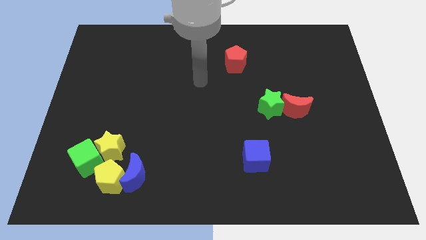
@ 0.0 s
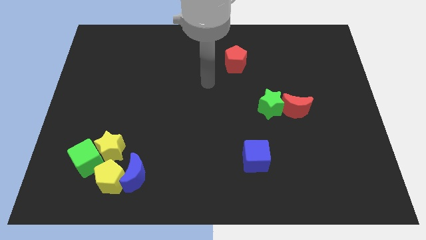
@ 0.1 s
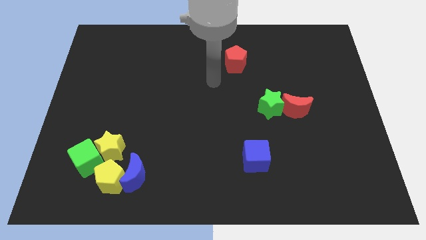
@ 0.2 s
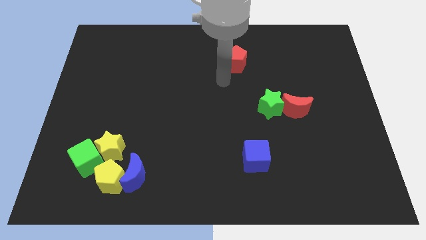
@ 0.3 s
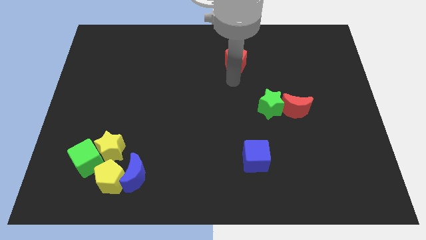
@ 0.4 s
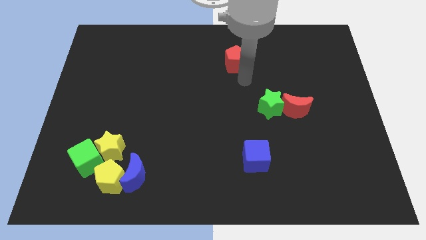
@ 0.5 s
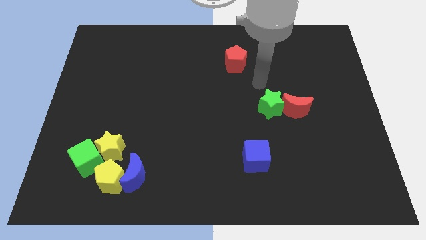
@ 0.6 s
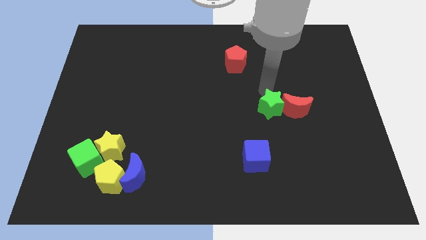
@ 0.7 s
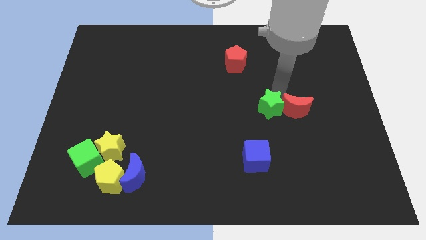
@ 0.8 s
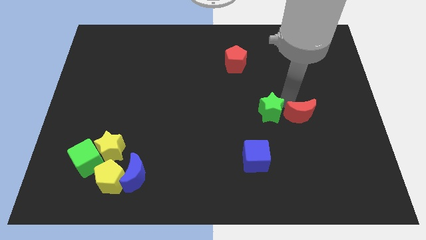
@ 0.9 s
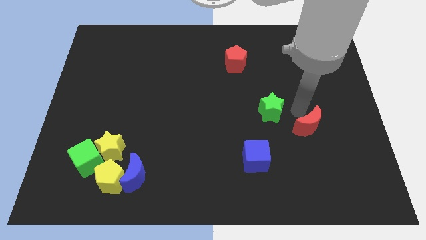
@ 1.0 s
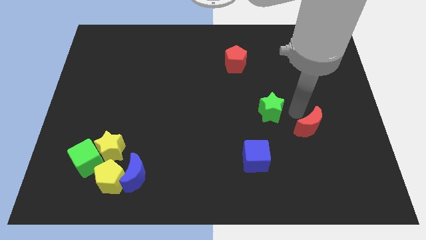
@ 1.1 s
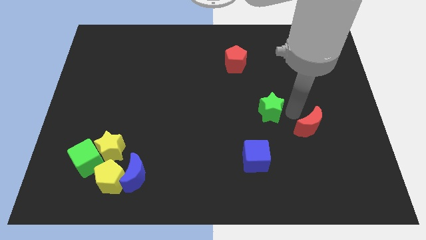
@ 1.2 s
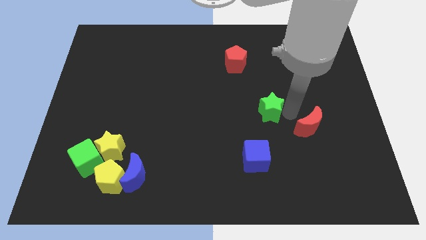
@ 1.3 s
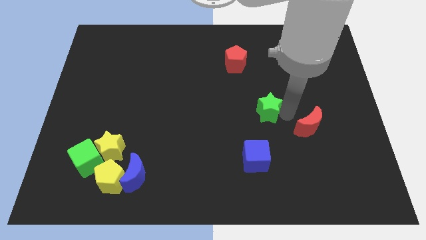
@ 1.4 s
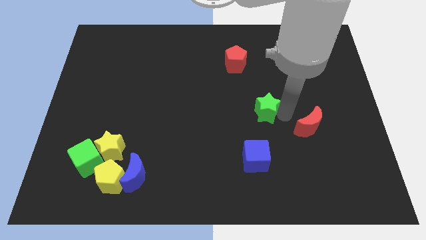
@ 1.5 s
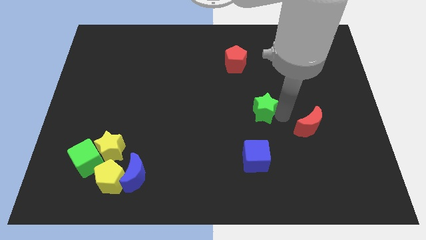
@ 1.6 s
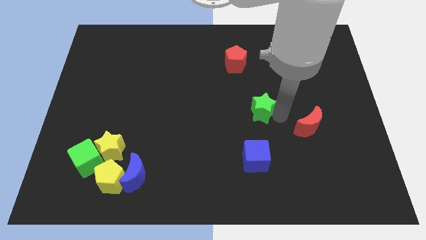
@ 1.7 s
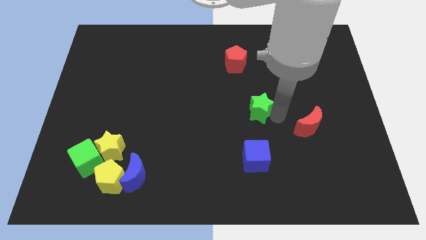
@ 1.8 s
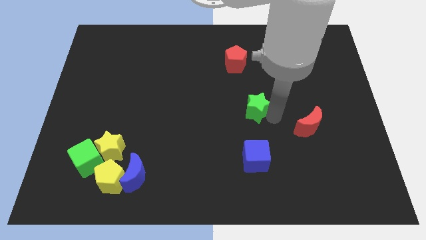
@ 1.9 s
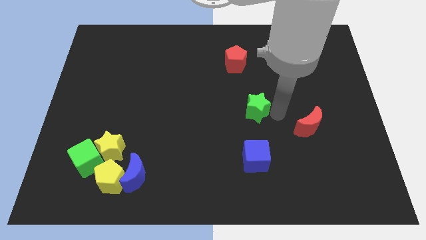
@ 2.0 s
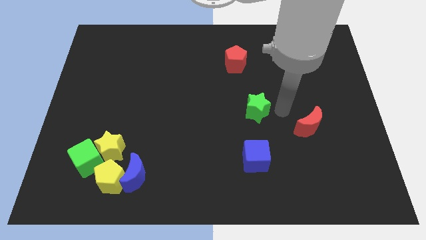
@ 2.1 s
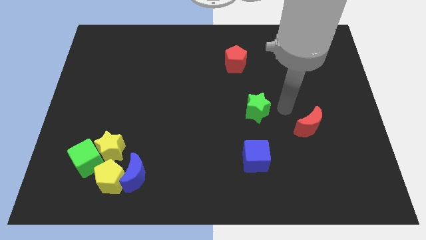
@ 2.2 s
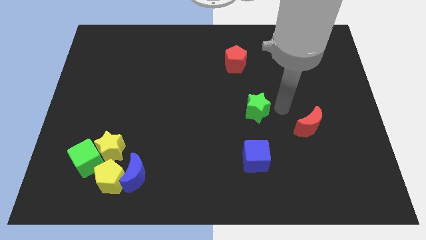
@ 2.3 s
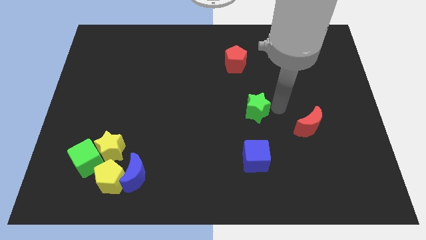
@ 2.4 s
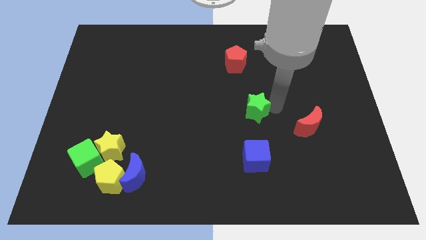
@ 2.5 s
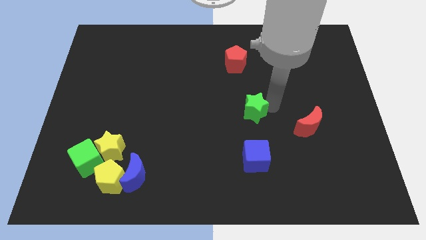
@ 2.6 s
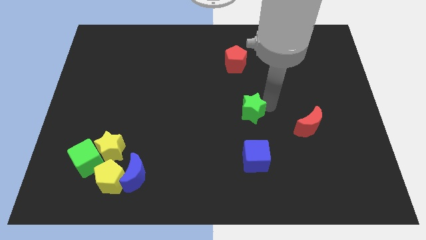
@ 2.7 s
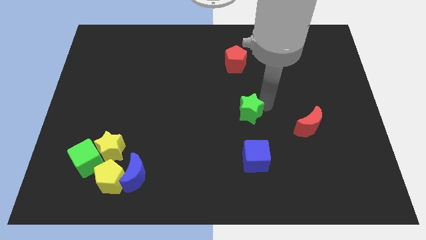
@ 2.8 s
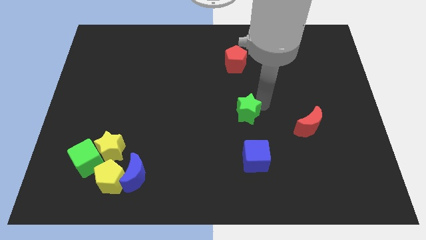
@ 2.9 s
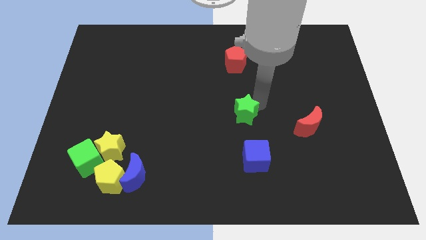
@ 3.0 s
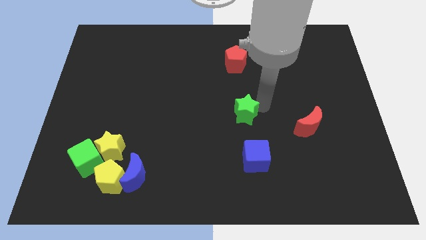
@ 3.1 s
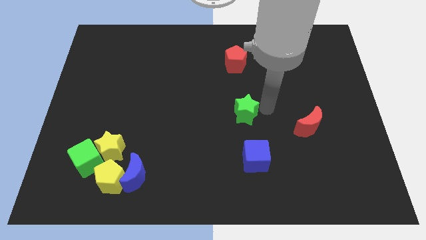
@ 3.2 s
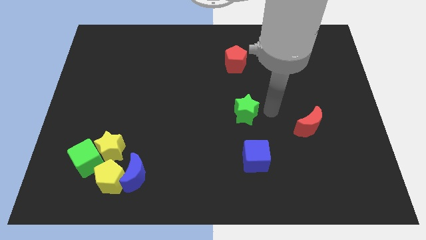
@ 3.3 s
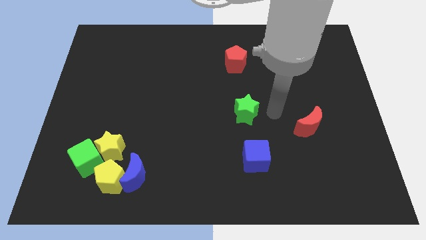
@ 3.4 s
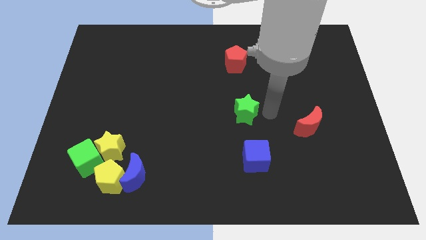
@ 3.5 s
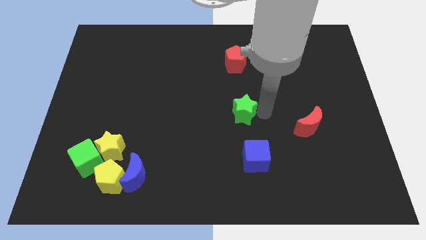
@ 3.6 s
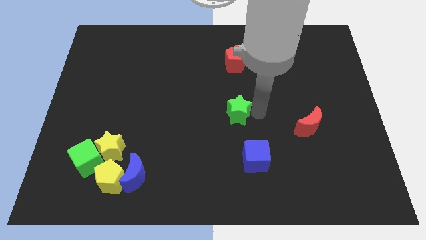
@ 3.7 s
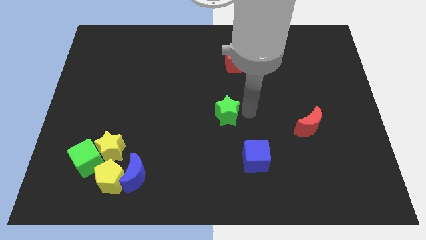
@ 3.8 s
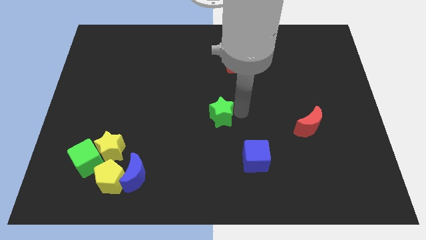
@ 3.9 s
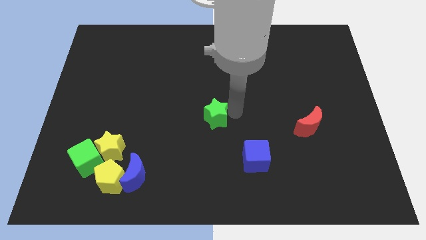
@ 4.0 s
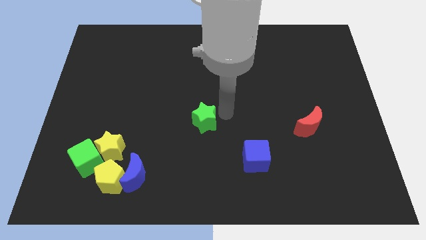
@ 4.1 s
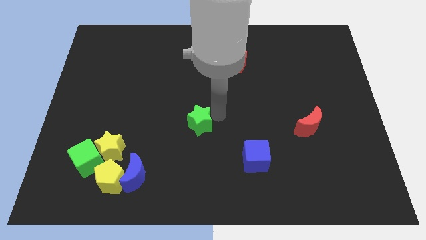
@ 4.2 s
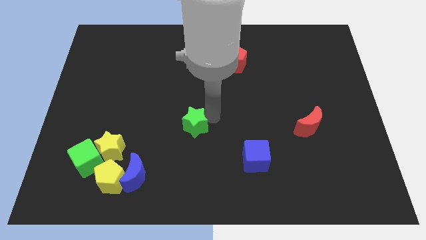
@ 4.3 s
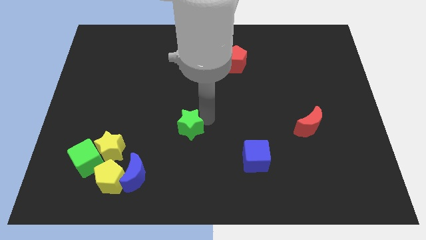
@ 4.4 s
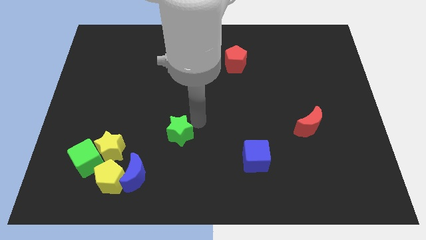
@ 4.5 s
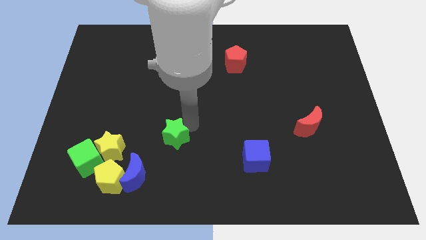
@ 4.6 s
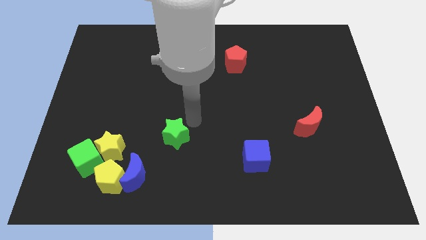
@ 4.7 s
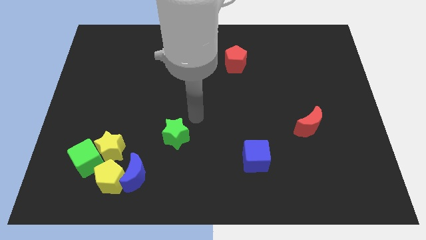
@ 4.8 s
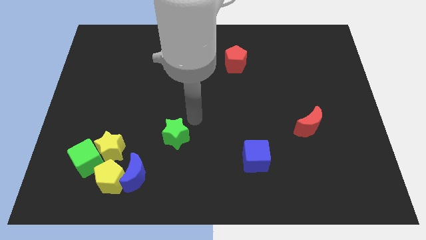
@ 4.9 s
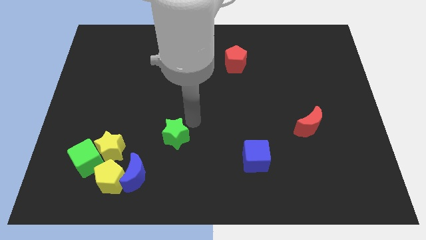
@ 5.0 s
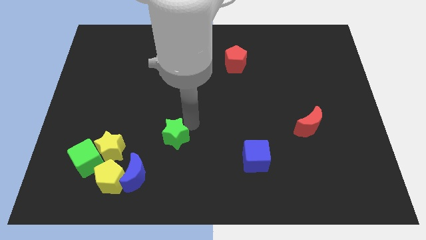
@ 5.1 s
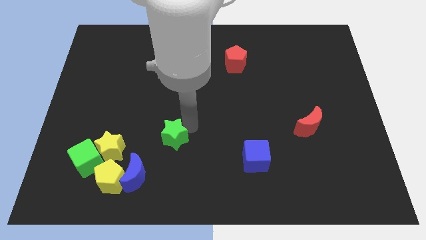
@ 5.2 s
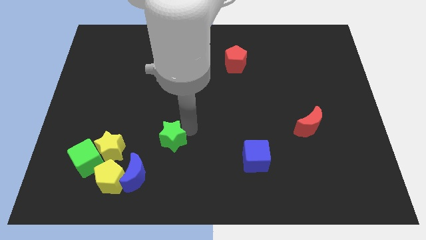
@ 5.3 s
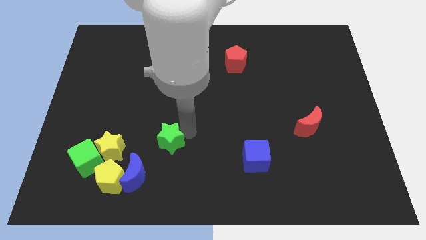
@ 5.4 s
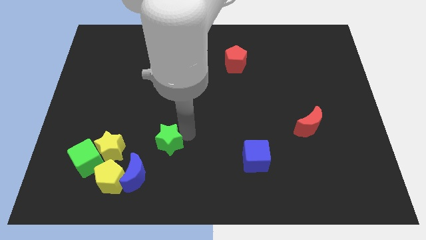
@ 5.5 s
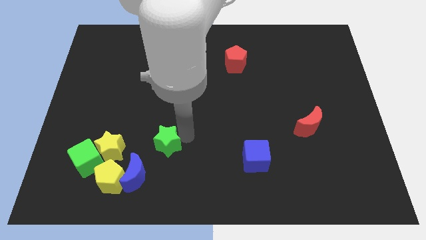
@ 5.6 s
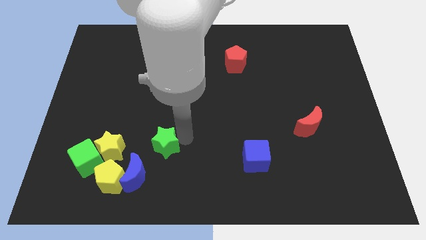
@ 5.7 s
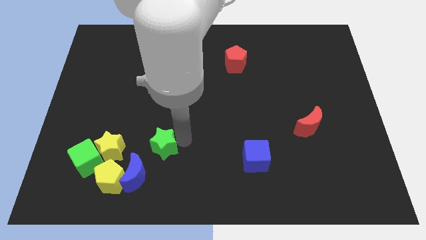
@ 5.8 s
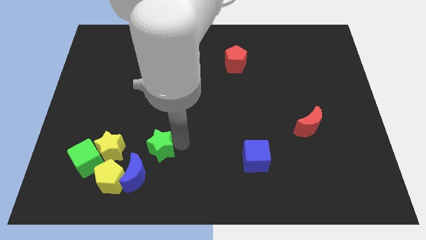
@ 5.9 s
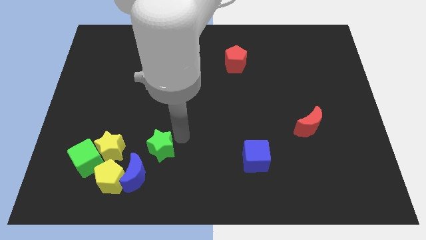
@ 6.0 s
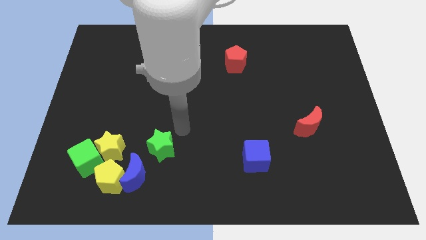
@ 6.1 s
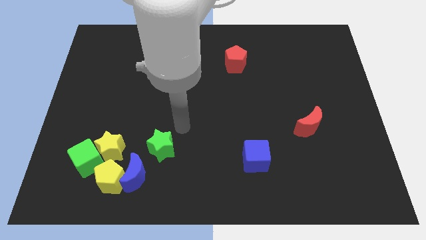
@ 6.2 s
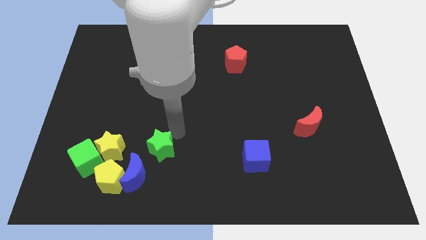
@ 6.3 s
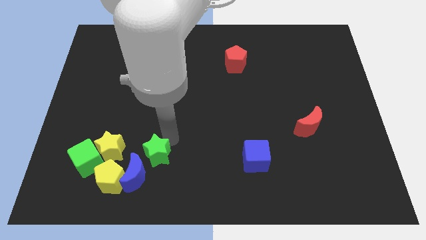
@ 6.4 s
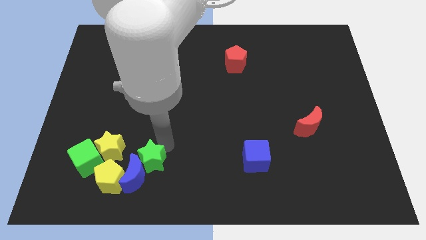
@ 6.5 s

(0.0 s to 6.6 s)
move the green star close to the blue moon

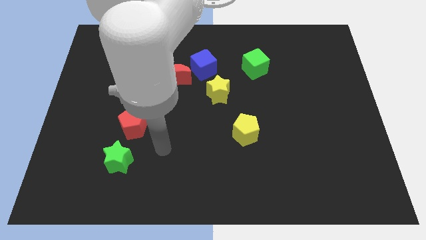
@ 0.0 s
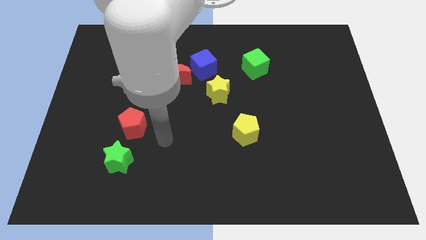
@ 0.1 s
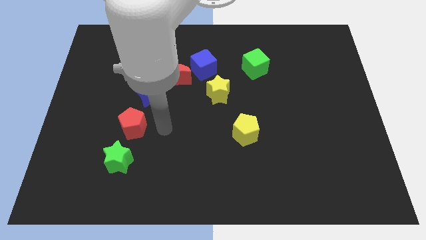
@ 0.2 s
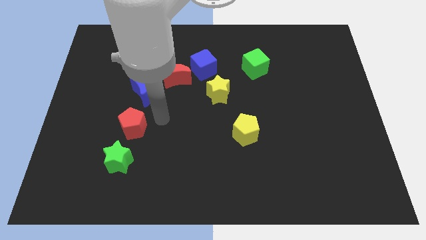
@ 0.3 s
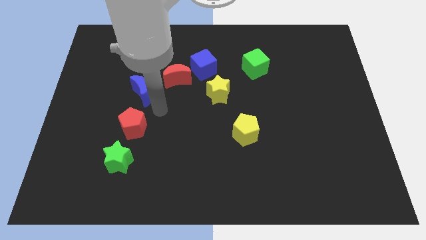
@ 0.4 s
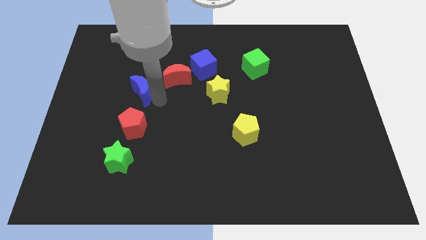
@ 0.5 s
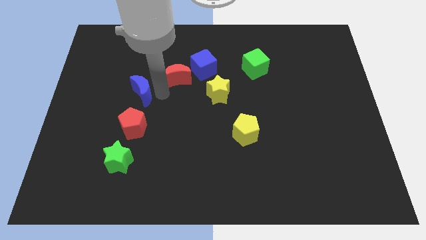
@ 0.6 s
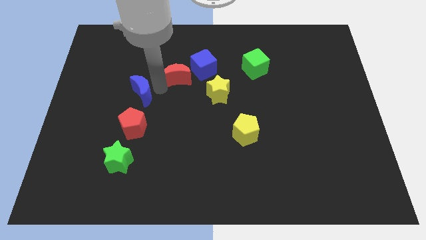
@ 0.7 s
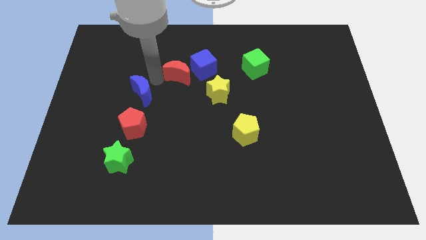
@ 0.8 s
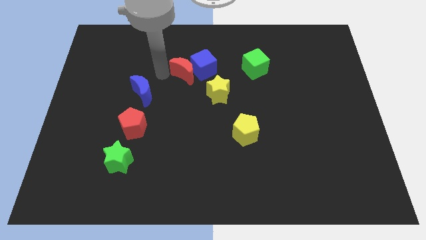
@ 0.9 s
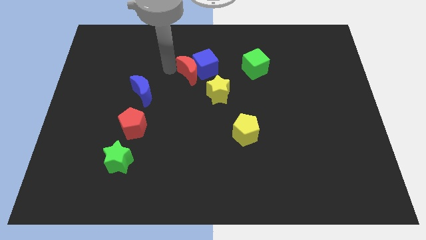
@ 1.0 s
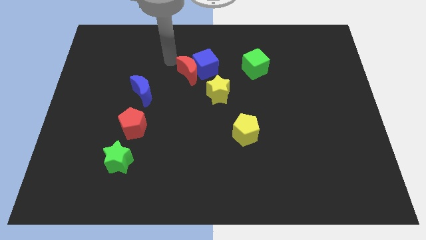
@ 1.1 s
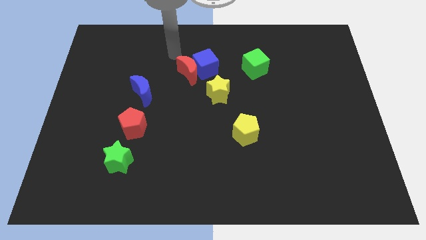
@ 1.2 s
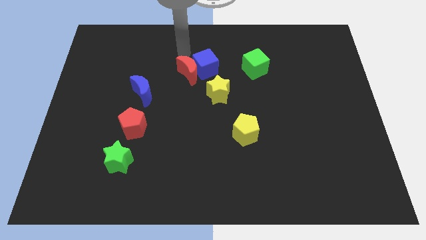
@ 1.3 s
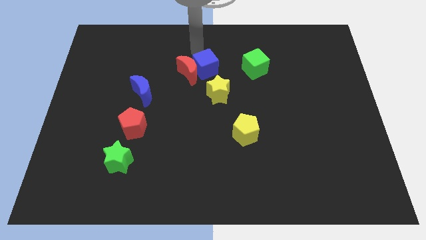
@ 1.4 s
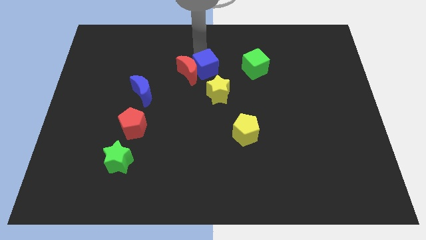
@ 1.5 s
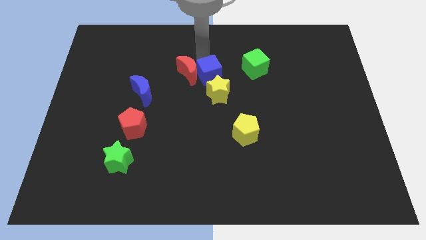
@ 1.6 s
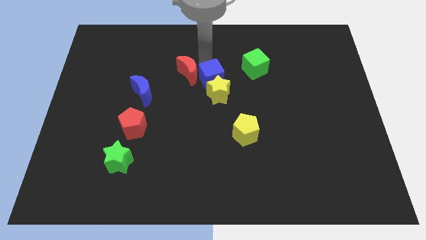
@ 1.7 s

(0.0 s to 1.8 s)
slide the blue cube towards the yellow star
